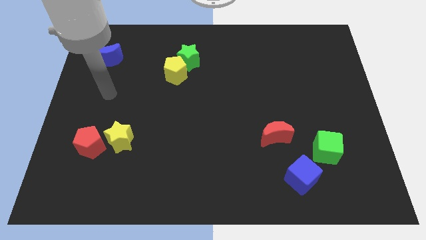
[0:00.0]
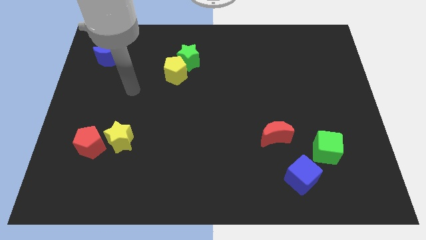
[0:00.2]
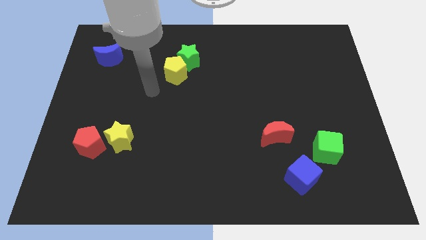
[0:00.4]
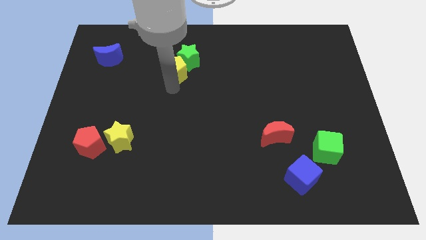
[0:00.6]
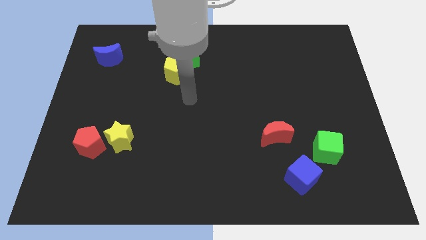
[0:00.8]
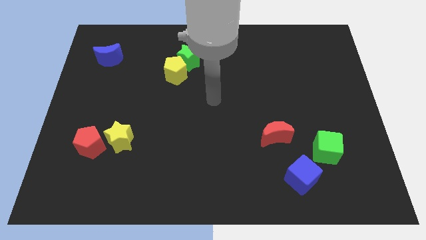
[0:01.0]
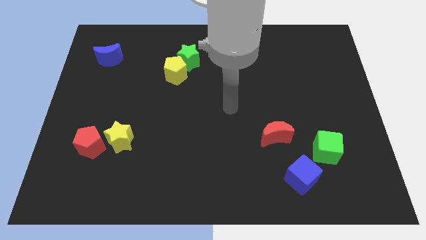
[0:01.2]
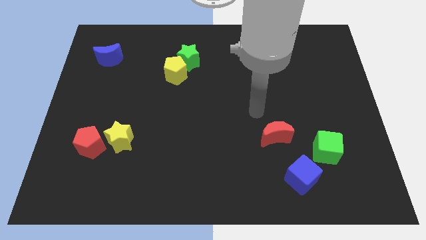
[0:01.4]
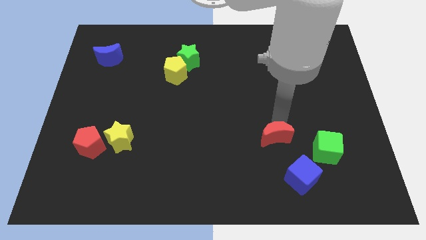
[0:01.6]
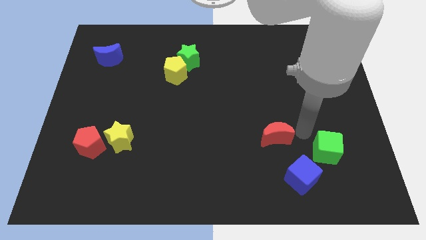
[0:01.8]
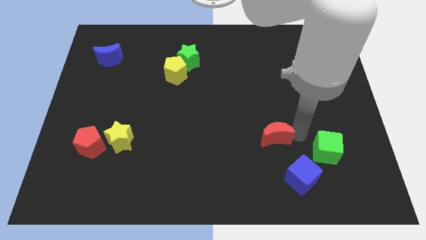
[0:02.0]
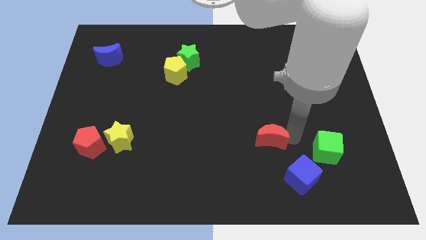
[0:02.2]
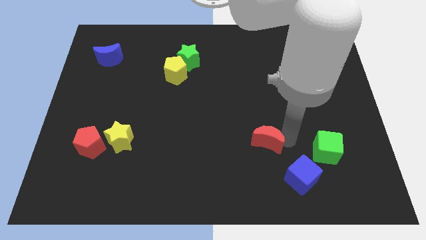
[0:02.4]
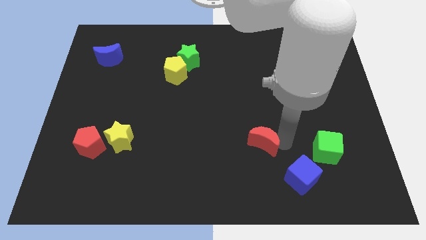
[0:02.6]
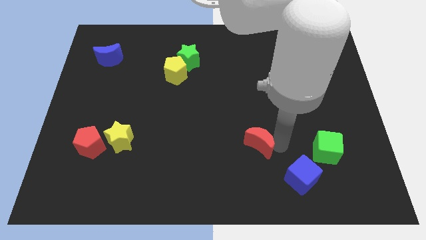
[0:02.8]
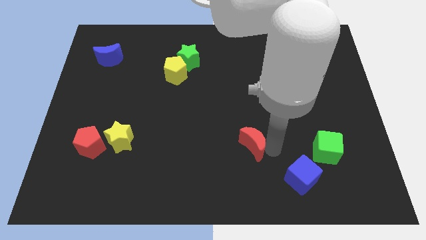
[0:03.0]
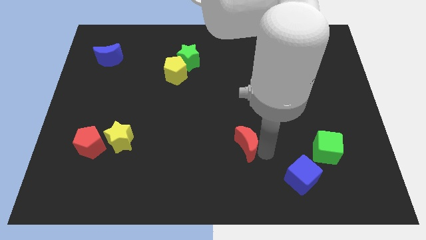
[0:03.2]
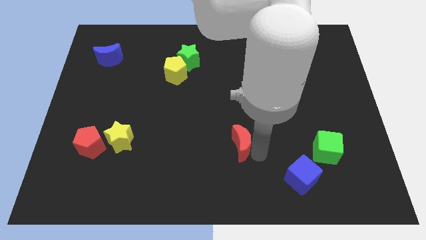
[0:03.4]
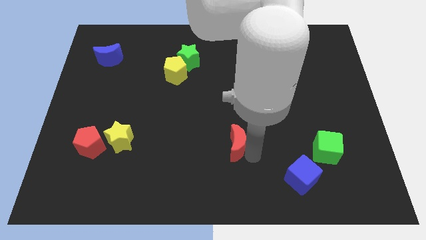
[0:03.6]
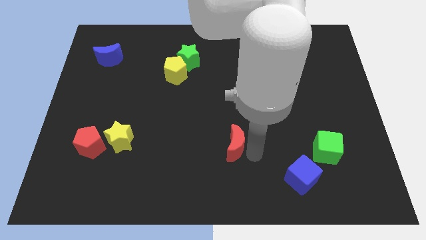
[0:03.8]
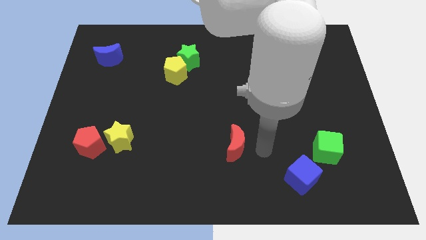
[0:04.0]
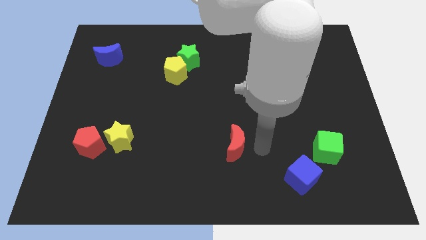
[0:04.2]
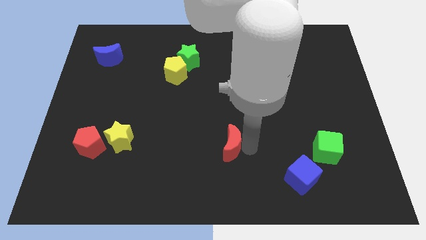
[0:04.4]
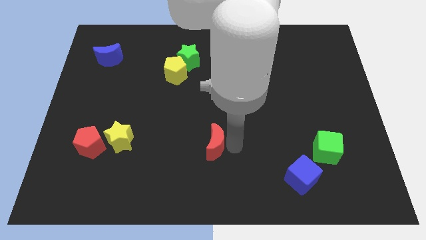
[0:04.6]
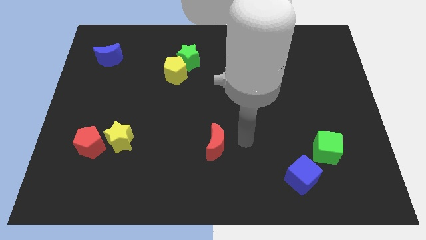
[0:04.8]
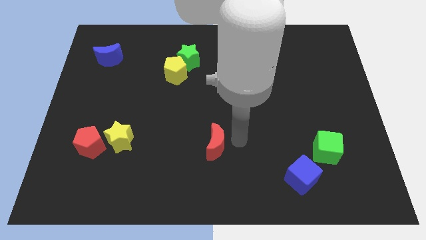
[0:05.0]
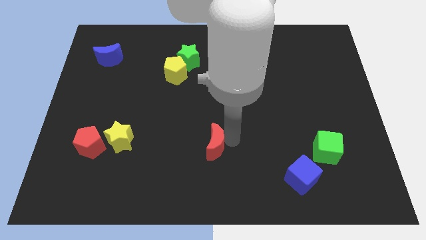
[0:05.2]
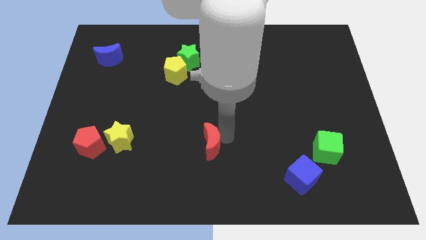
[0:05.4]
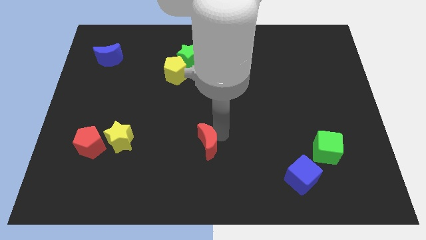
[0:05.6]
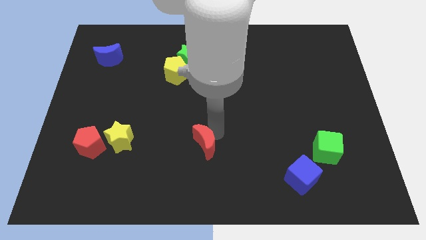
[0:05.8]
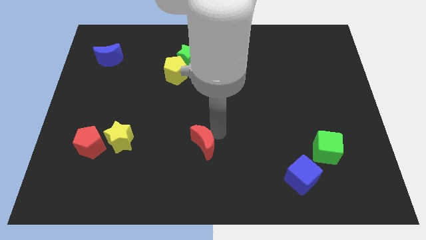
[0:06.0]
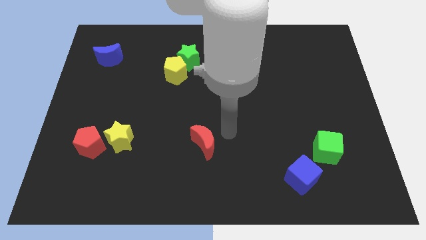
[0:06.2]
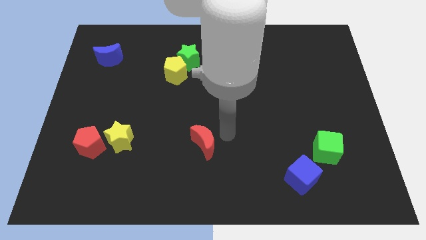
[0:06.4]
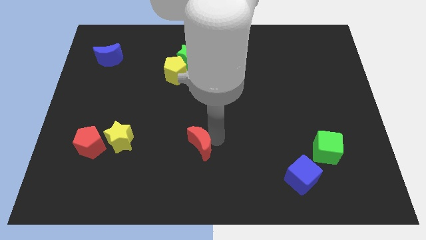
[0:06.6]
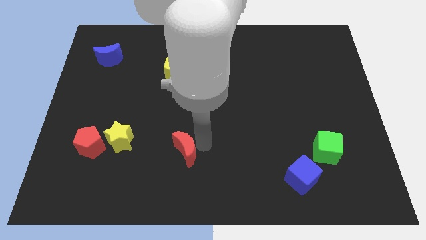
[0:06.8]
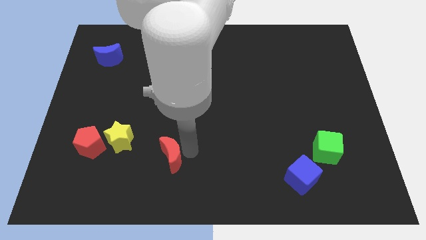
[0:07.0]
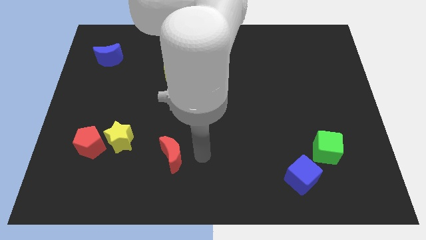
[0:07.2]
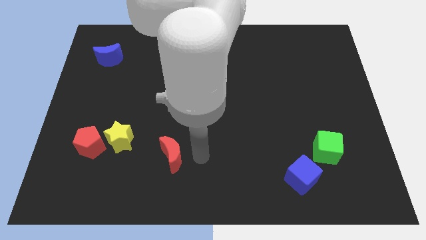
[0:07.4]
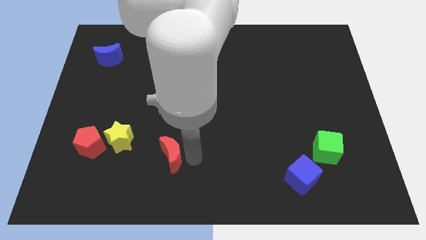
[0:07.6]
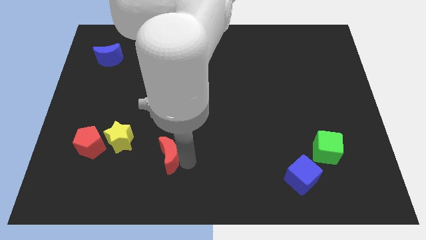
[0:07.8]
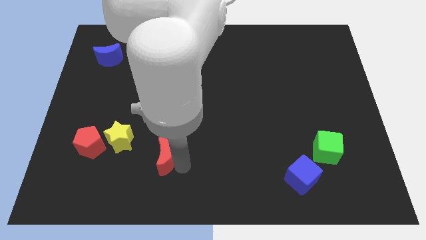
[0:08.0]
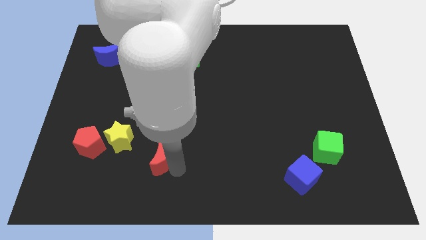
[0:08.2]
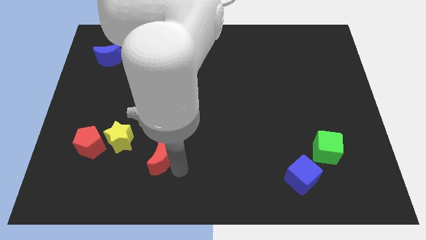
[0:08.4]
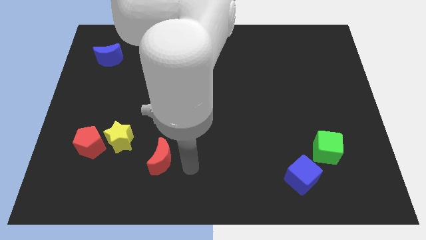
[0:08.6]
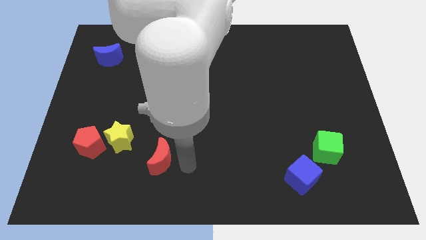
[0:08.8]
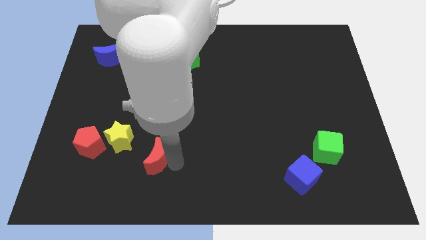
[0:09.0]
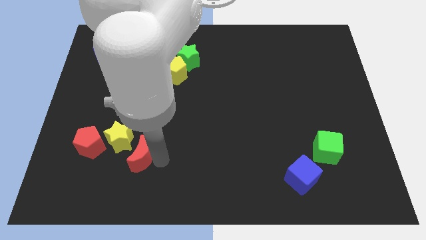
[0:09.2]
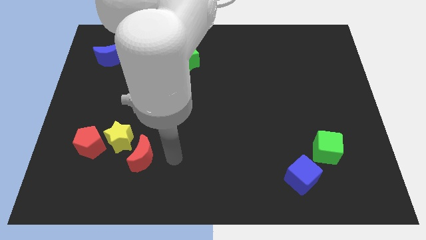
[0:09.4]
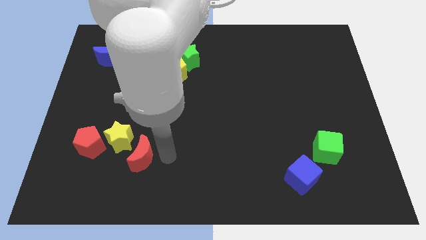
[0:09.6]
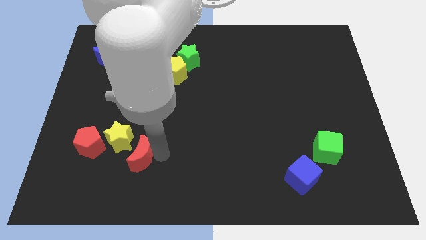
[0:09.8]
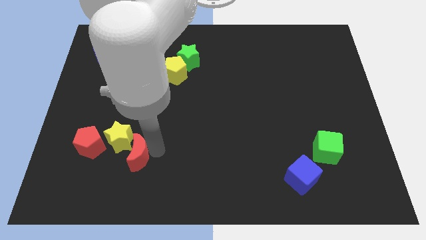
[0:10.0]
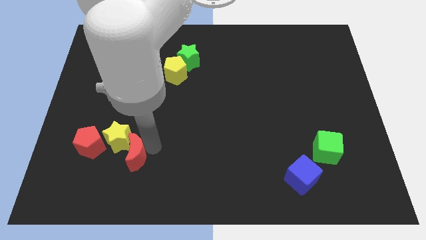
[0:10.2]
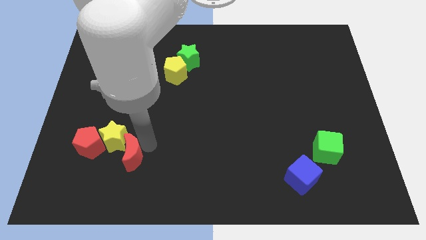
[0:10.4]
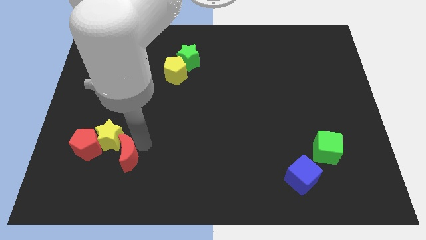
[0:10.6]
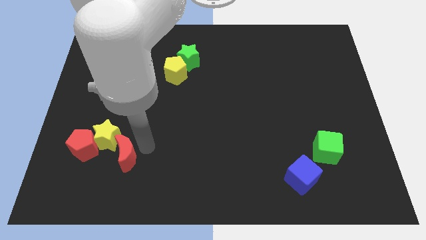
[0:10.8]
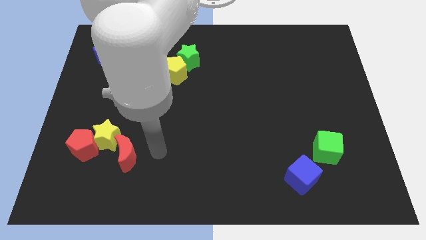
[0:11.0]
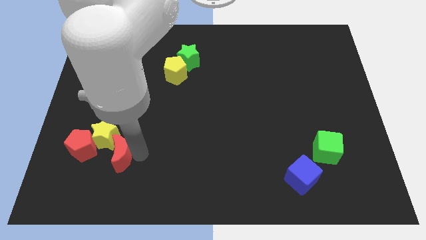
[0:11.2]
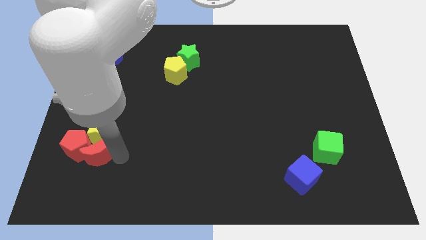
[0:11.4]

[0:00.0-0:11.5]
push the red moon to the bottom left of the yellow star

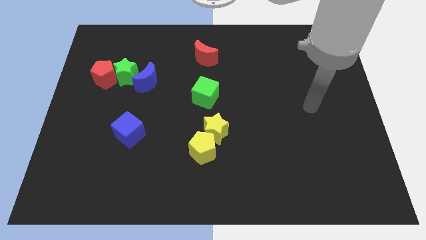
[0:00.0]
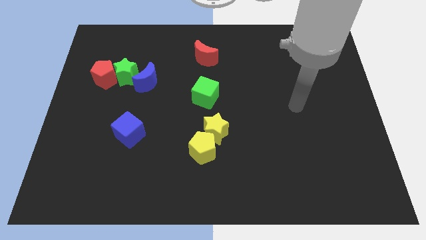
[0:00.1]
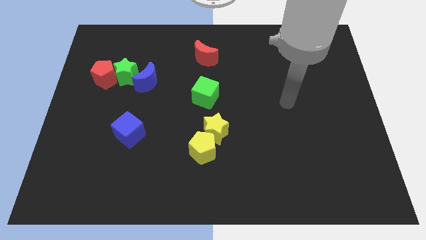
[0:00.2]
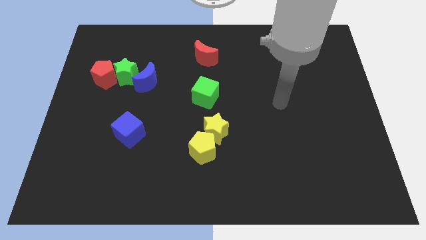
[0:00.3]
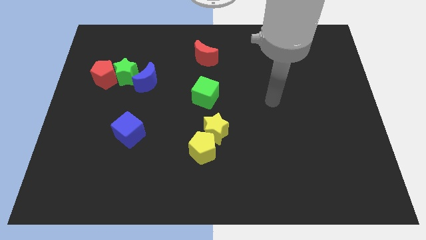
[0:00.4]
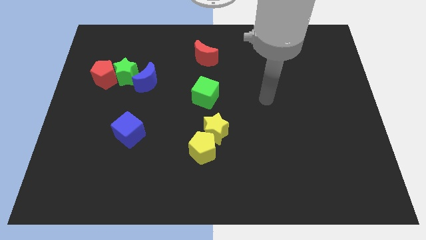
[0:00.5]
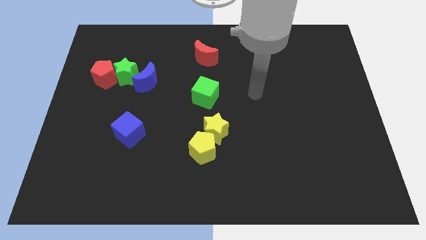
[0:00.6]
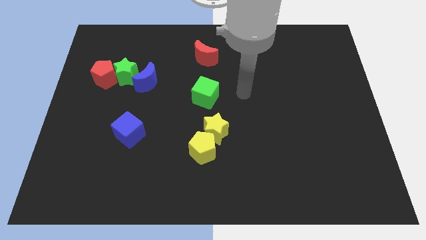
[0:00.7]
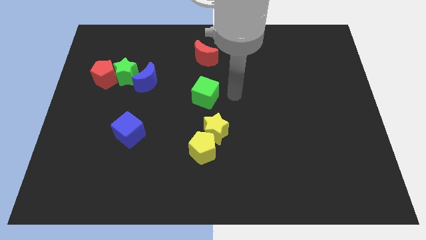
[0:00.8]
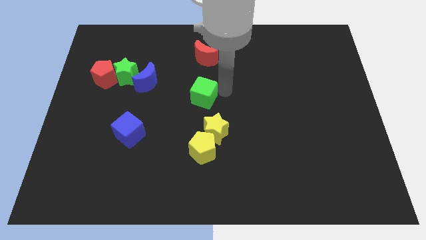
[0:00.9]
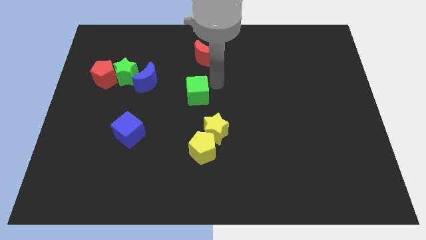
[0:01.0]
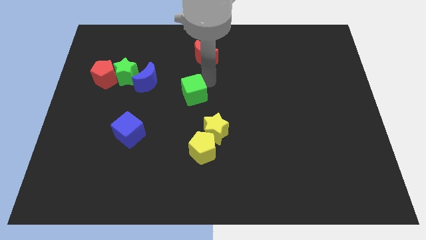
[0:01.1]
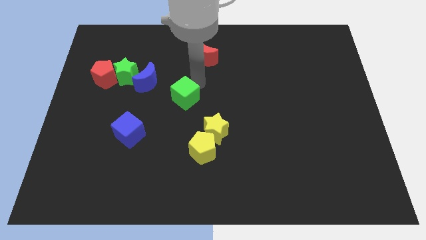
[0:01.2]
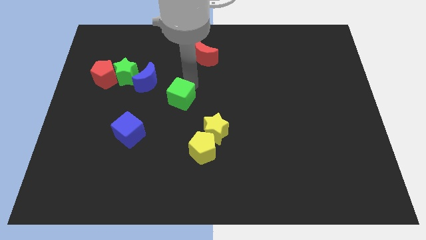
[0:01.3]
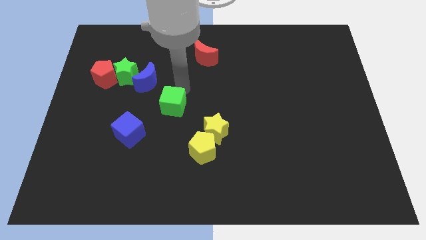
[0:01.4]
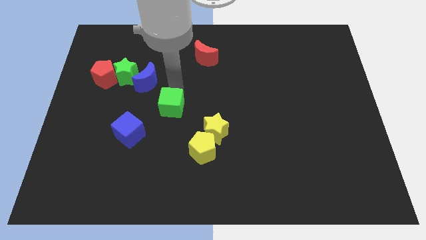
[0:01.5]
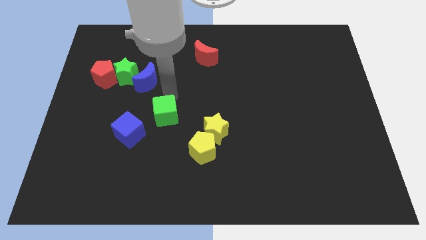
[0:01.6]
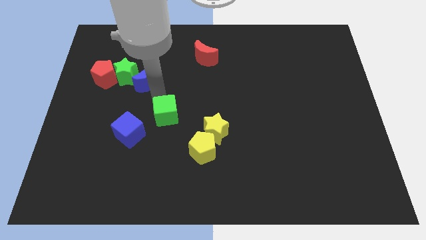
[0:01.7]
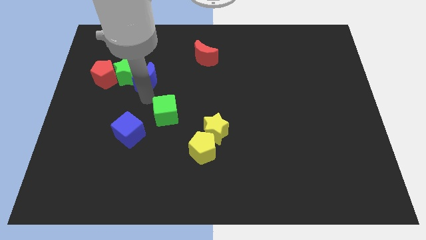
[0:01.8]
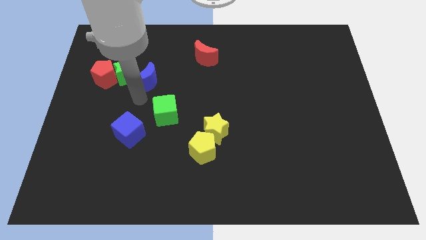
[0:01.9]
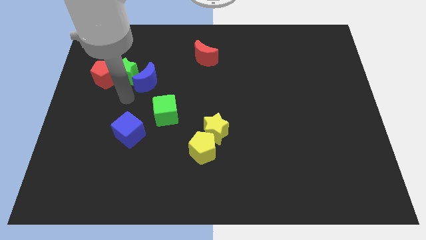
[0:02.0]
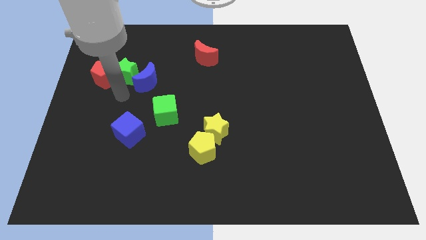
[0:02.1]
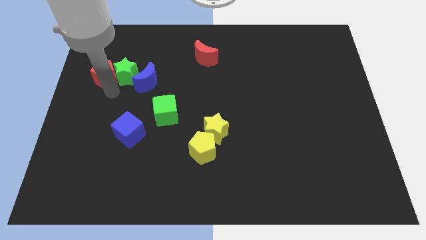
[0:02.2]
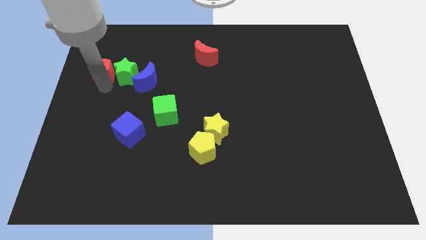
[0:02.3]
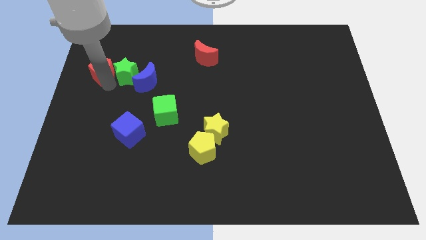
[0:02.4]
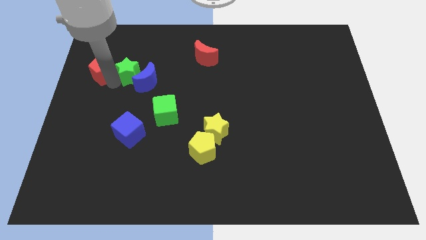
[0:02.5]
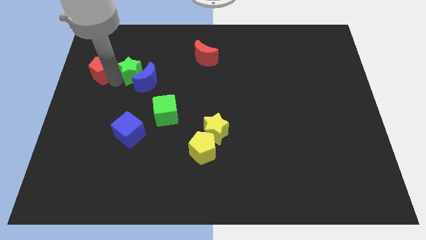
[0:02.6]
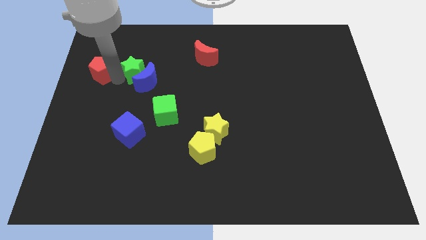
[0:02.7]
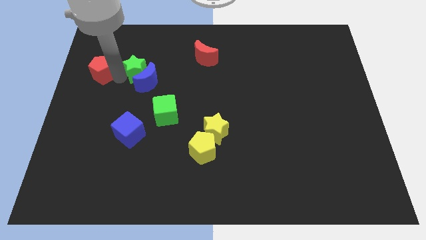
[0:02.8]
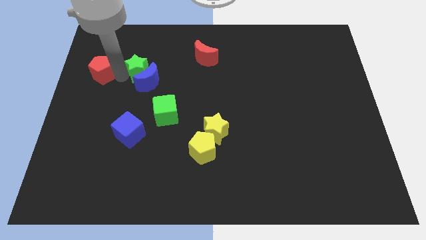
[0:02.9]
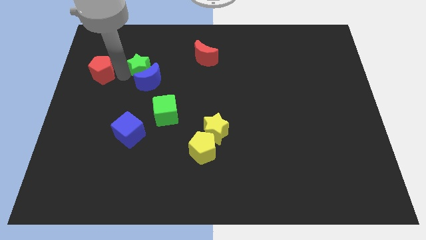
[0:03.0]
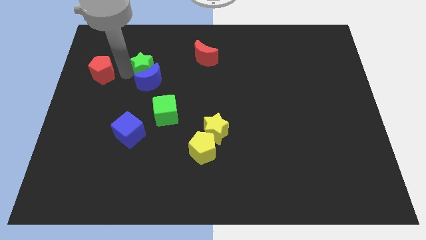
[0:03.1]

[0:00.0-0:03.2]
put the green star diagonally up and to the right of the blue moon
